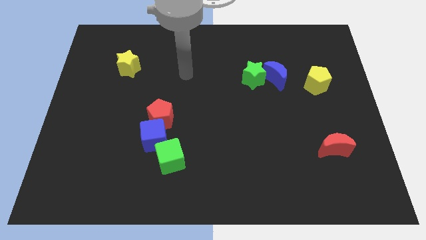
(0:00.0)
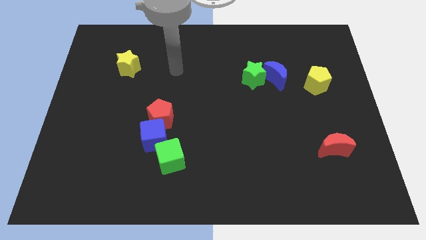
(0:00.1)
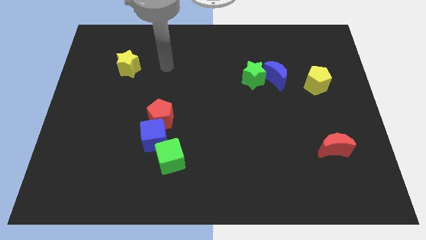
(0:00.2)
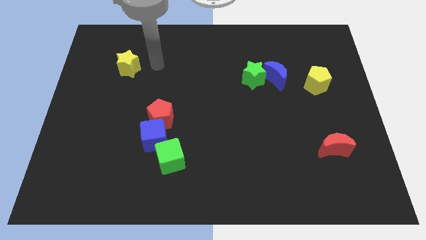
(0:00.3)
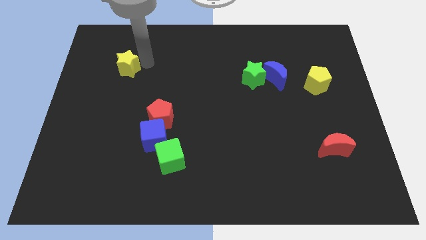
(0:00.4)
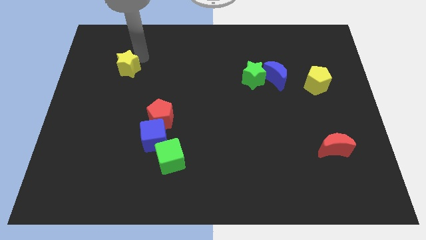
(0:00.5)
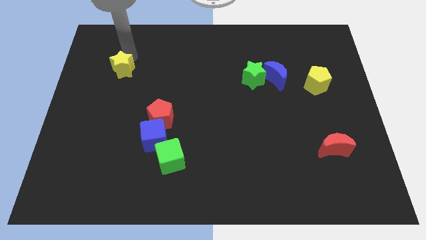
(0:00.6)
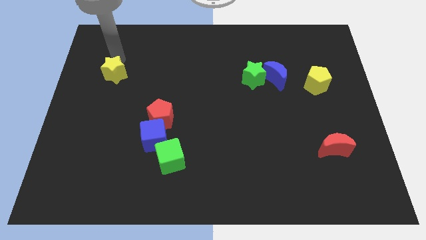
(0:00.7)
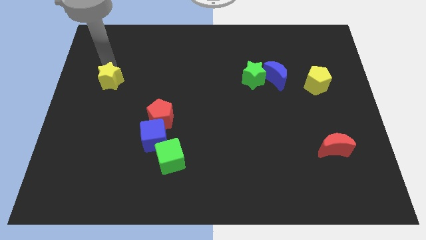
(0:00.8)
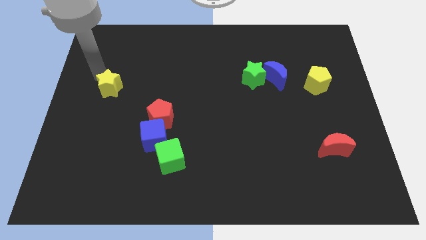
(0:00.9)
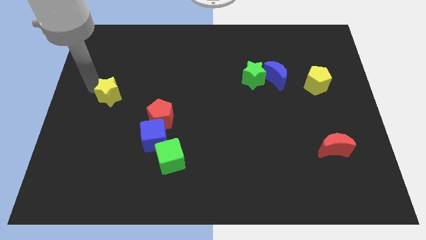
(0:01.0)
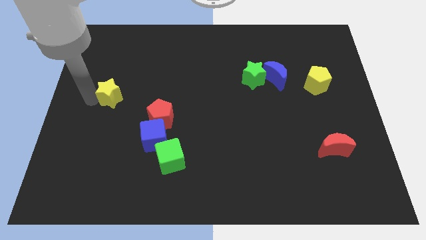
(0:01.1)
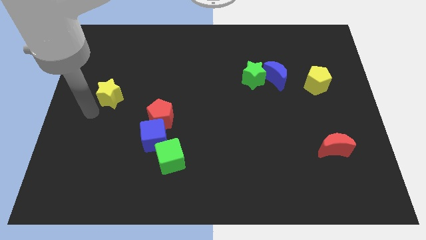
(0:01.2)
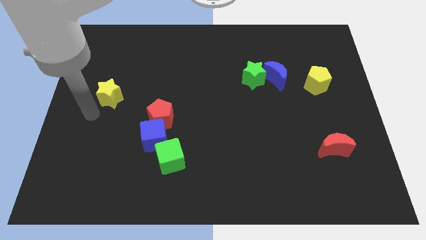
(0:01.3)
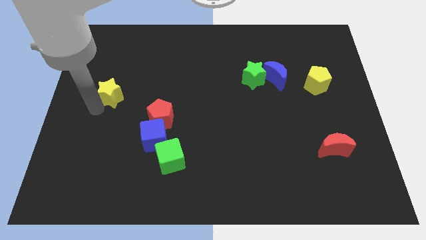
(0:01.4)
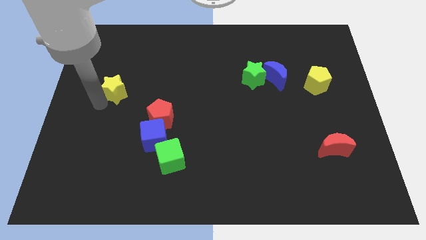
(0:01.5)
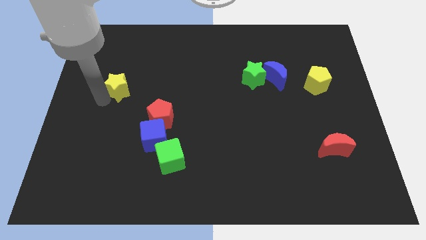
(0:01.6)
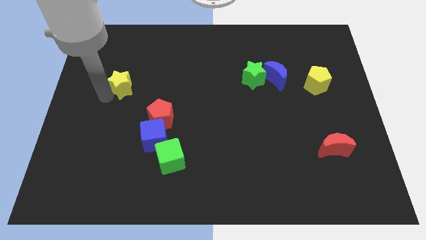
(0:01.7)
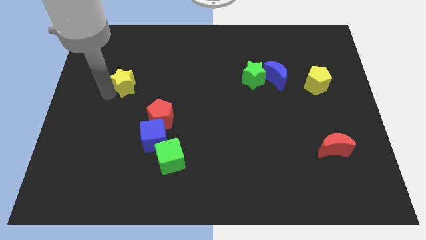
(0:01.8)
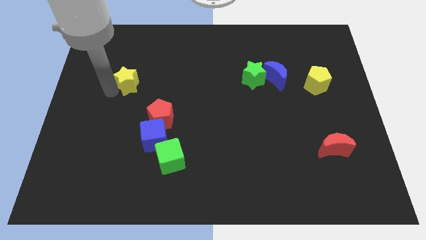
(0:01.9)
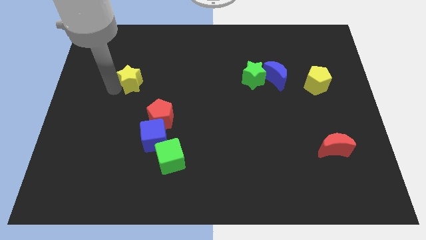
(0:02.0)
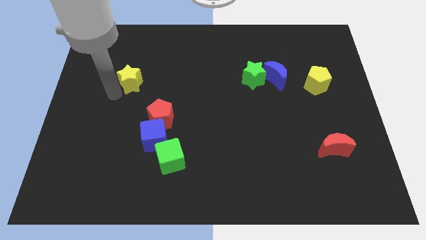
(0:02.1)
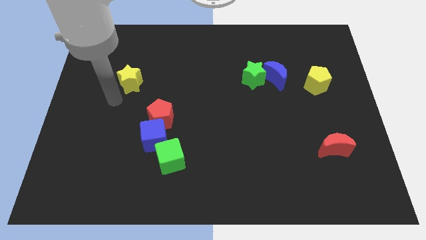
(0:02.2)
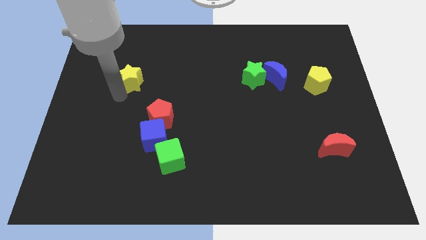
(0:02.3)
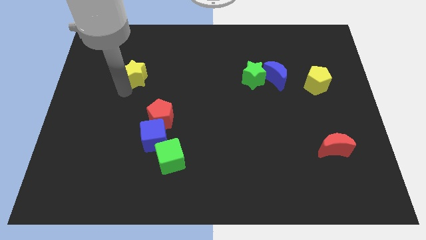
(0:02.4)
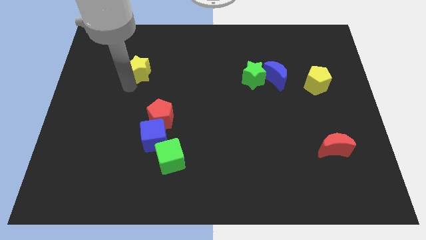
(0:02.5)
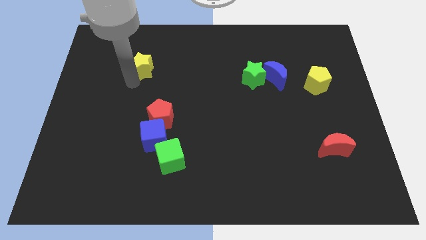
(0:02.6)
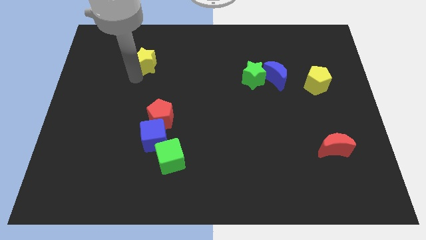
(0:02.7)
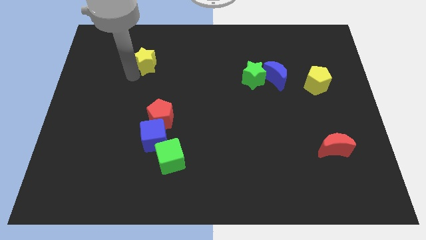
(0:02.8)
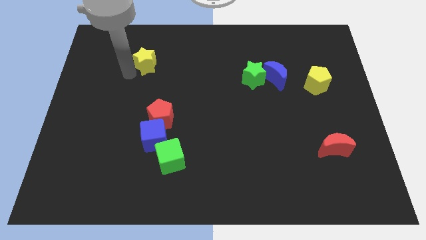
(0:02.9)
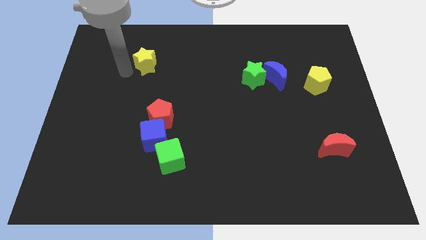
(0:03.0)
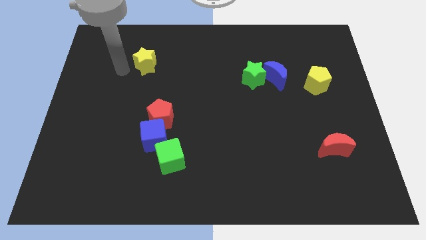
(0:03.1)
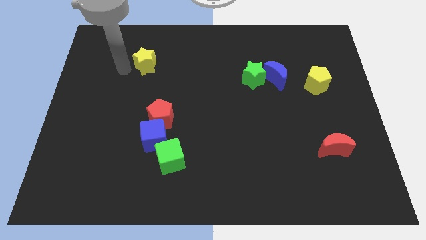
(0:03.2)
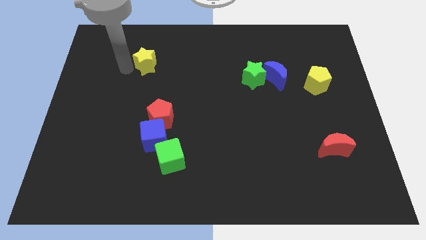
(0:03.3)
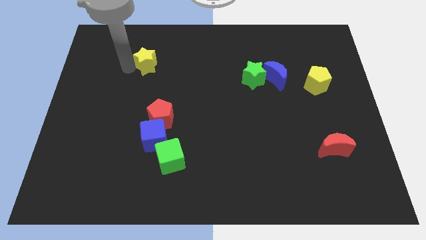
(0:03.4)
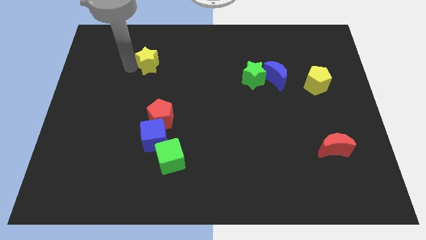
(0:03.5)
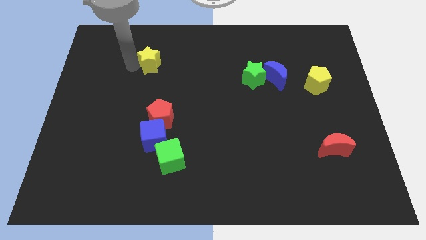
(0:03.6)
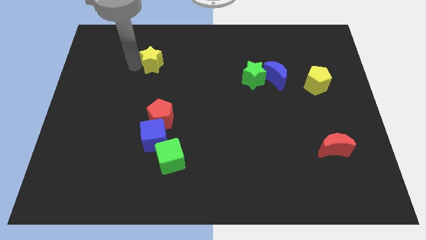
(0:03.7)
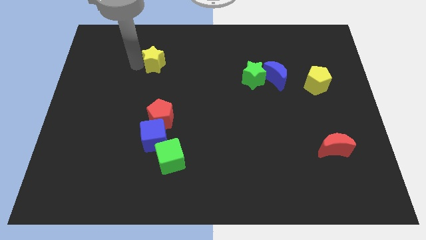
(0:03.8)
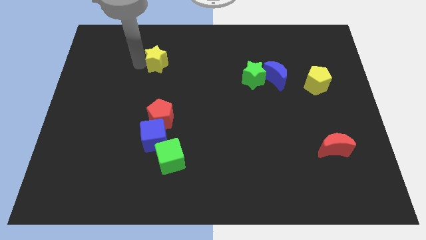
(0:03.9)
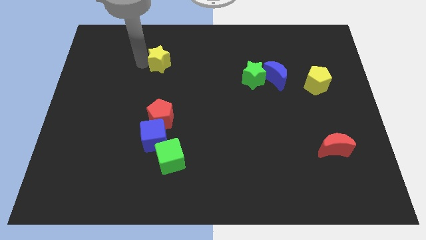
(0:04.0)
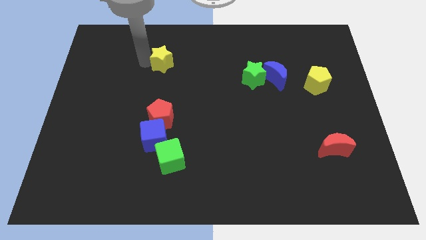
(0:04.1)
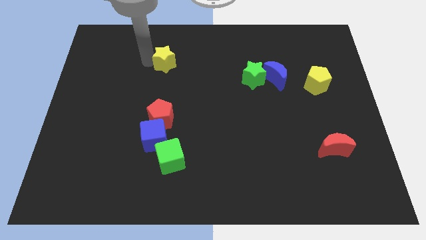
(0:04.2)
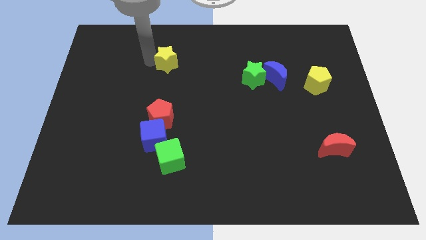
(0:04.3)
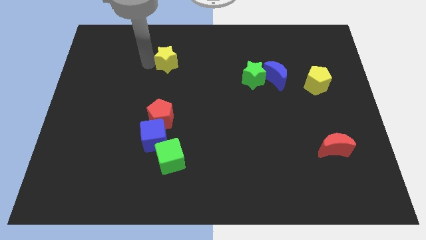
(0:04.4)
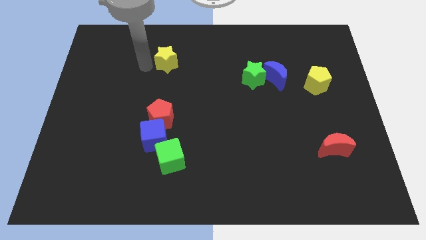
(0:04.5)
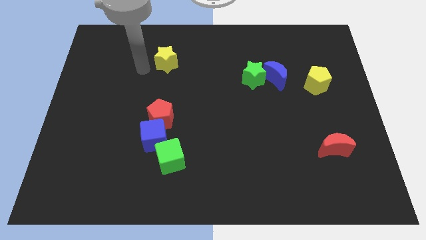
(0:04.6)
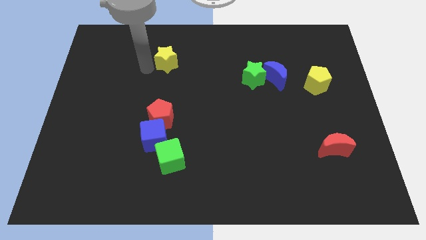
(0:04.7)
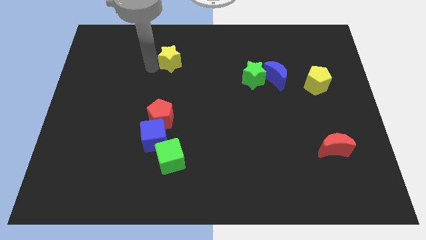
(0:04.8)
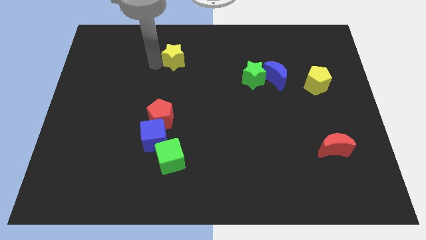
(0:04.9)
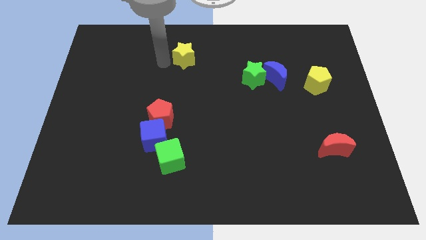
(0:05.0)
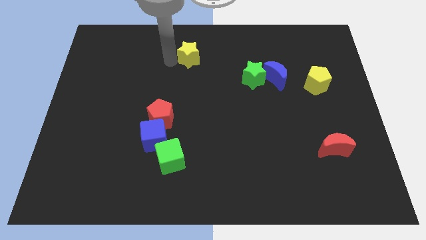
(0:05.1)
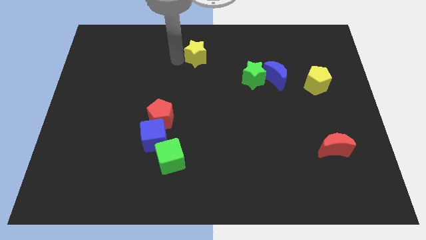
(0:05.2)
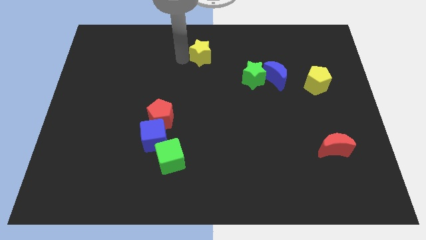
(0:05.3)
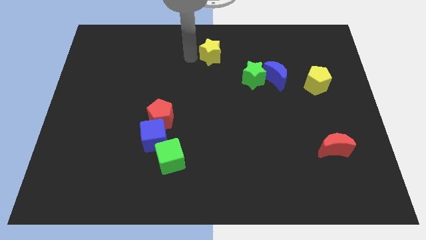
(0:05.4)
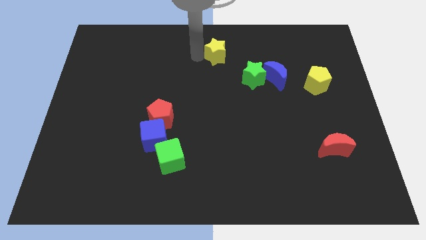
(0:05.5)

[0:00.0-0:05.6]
move the yellow star diagonally up and to the left of the green star

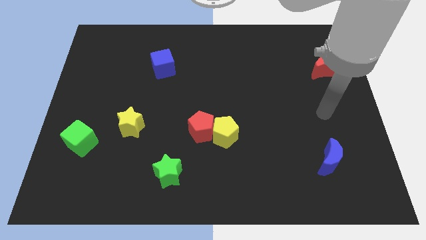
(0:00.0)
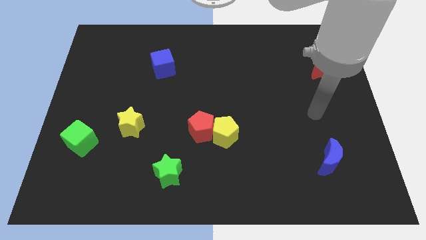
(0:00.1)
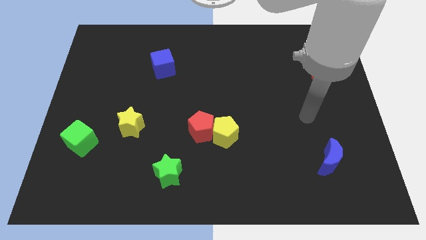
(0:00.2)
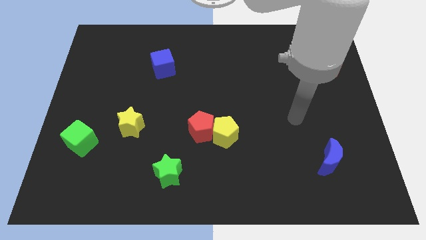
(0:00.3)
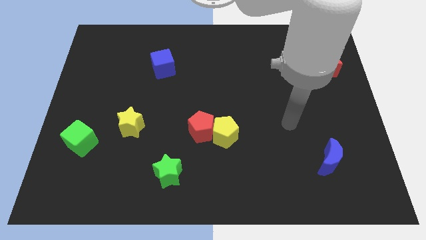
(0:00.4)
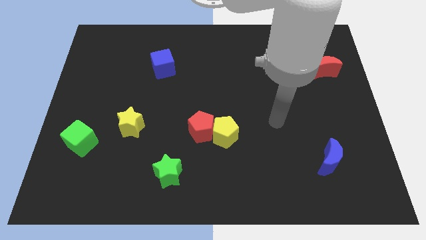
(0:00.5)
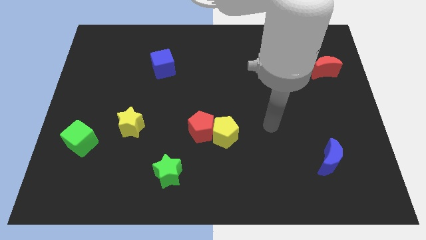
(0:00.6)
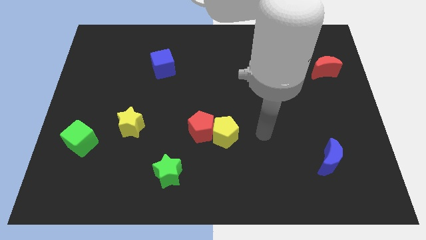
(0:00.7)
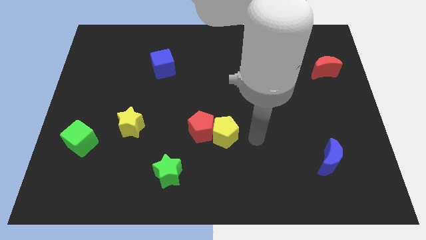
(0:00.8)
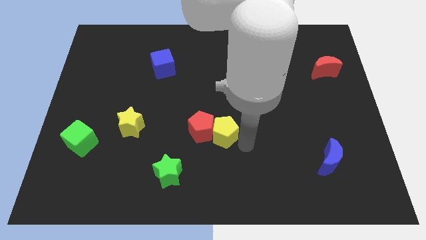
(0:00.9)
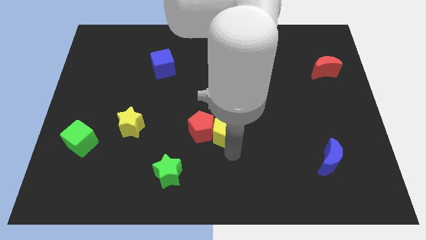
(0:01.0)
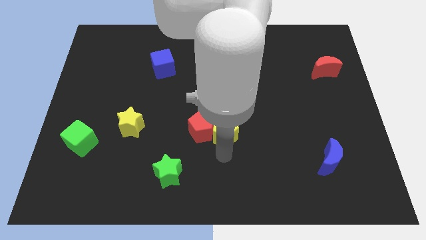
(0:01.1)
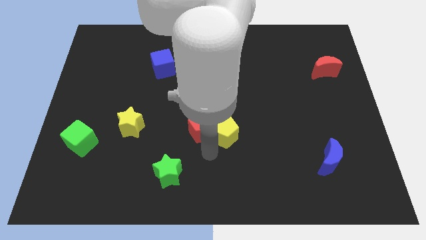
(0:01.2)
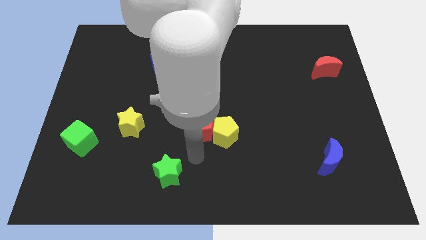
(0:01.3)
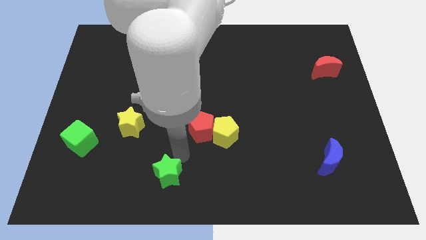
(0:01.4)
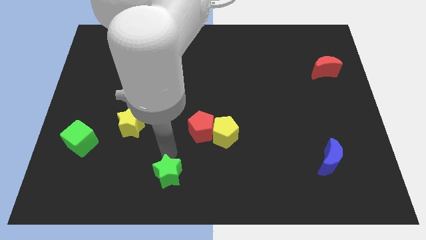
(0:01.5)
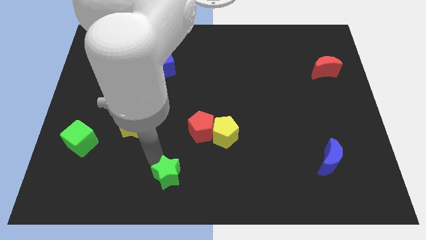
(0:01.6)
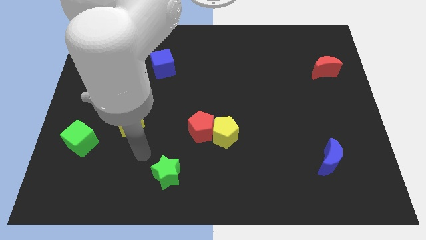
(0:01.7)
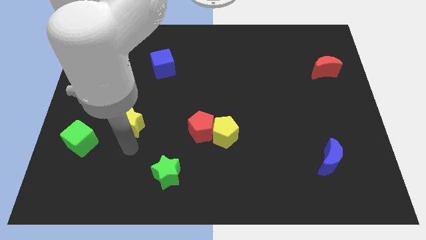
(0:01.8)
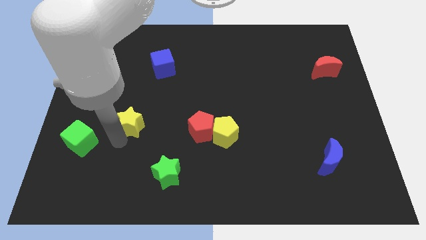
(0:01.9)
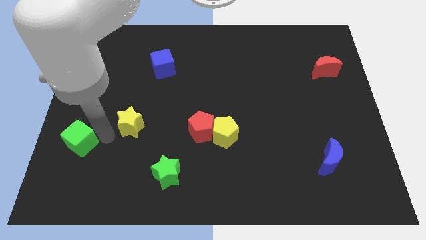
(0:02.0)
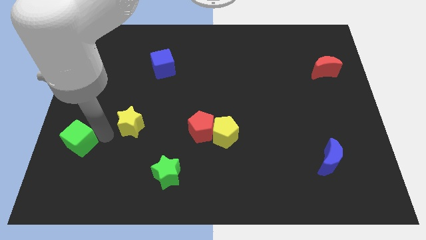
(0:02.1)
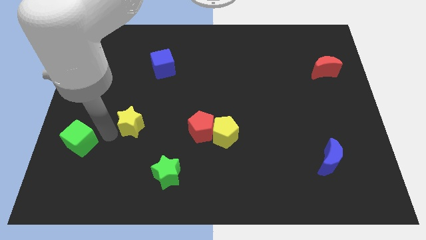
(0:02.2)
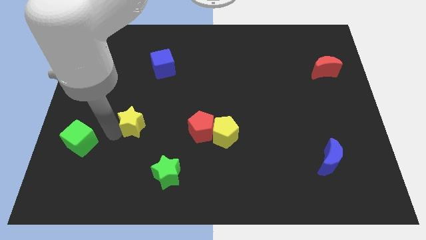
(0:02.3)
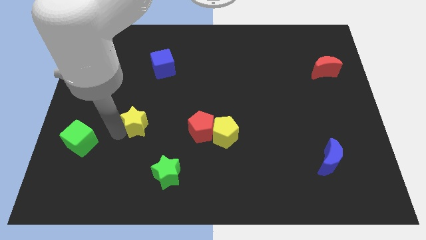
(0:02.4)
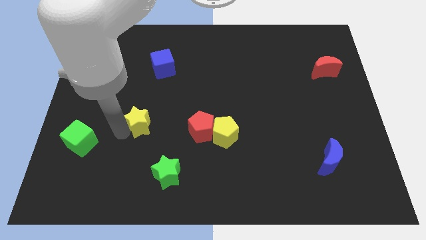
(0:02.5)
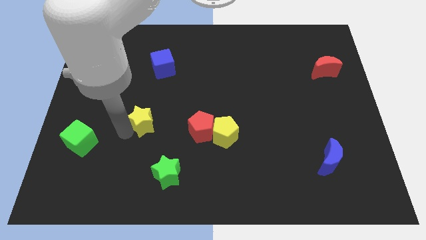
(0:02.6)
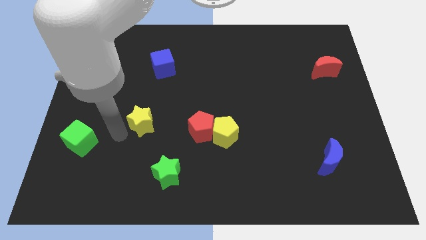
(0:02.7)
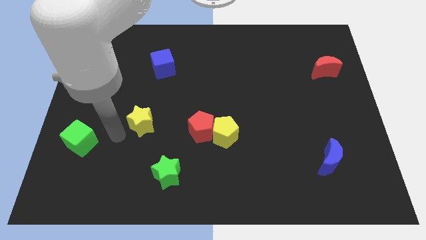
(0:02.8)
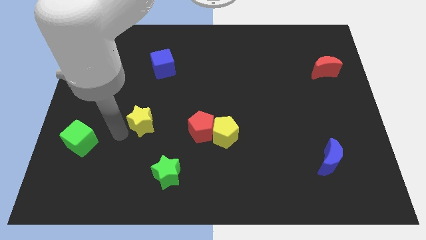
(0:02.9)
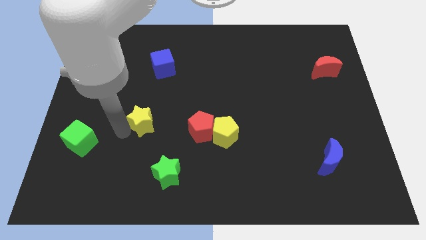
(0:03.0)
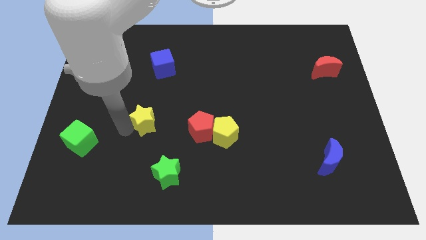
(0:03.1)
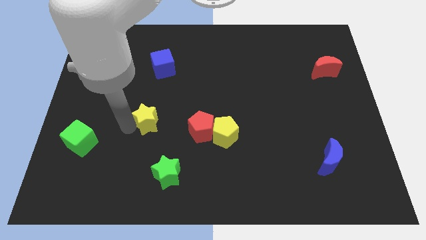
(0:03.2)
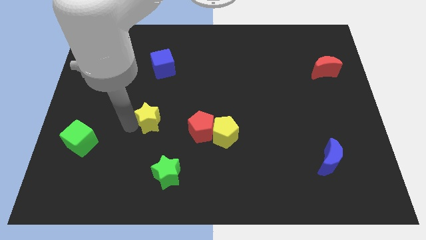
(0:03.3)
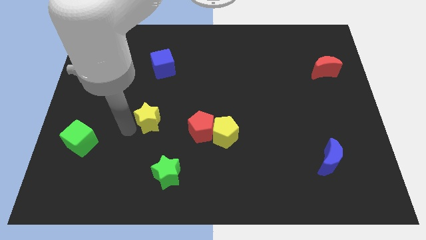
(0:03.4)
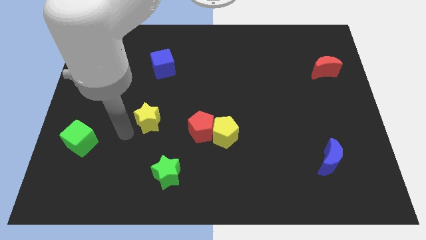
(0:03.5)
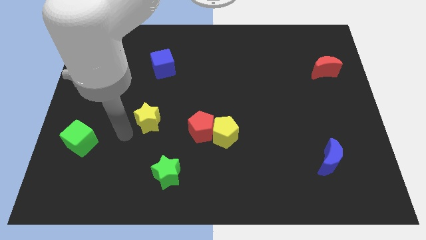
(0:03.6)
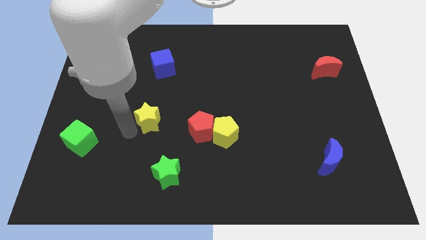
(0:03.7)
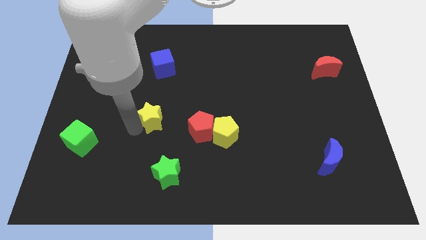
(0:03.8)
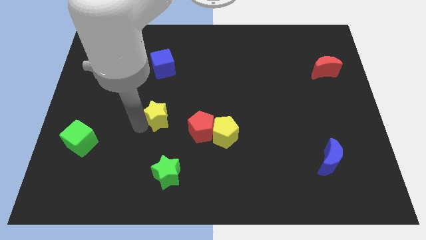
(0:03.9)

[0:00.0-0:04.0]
slide the yellow star to the top left side of the red pentagon
